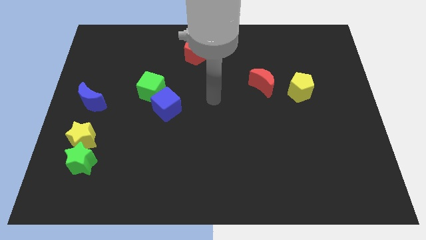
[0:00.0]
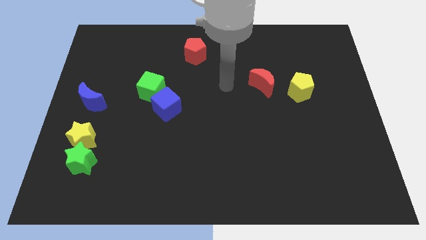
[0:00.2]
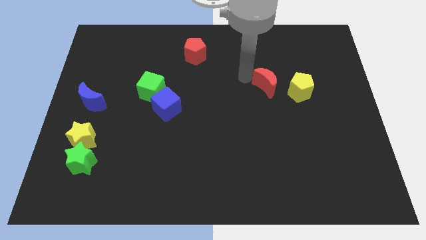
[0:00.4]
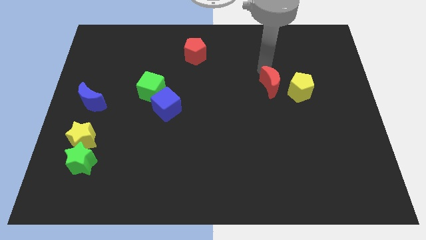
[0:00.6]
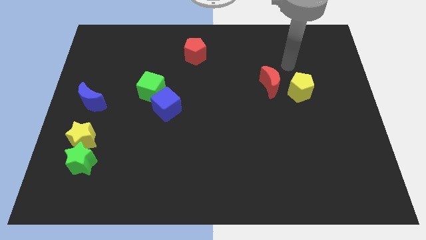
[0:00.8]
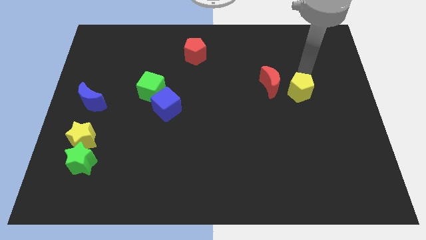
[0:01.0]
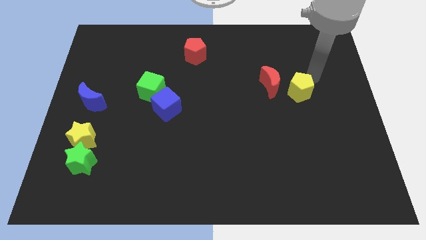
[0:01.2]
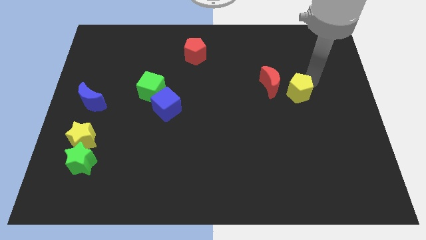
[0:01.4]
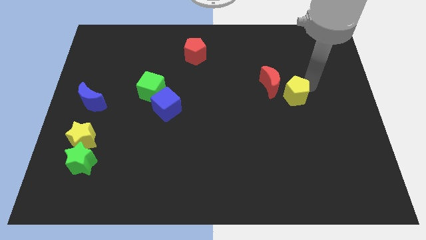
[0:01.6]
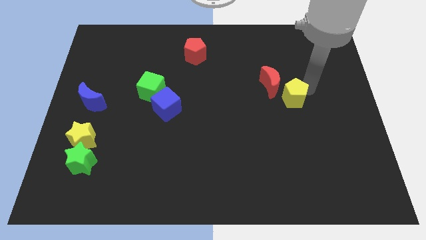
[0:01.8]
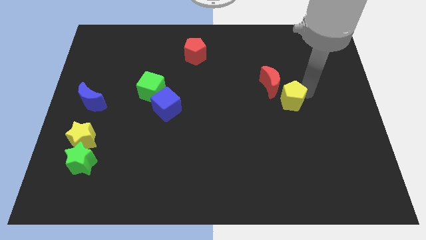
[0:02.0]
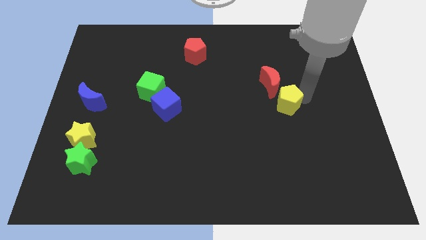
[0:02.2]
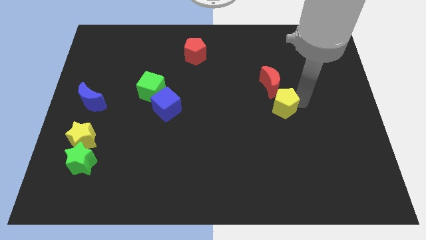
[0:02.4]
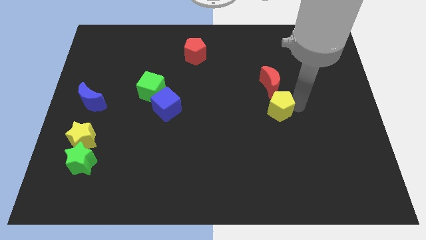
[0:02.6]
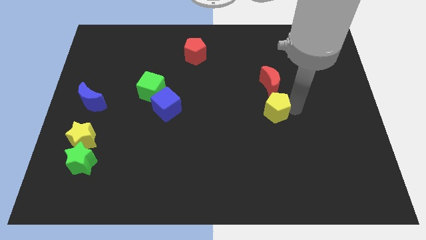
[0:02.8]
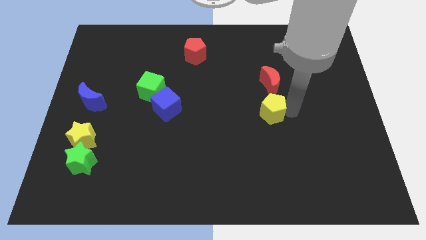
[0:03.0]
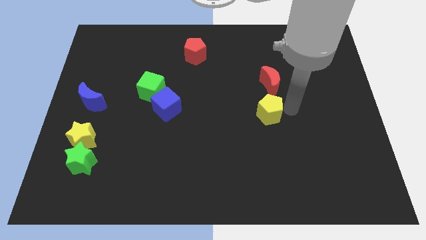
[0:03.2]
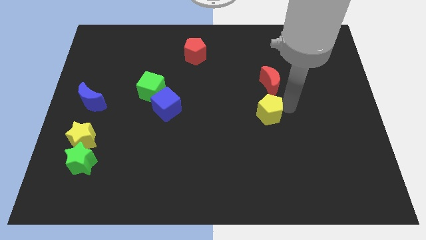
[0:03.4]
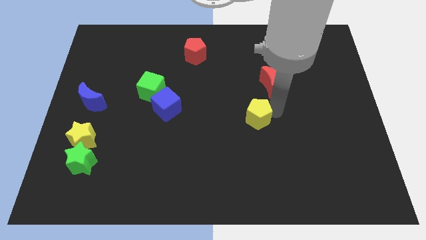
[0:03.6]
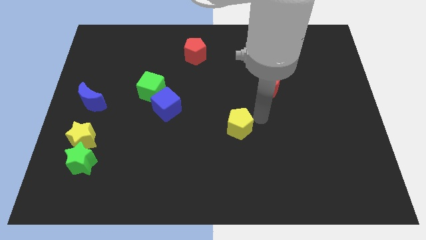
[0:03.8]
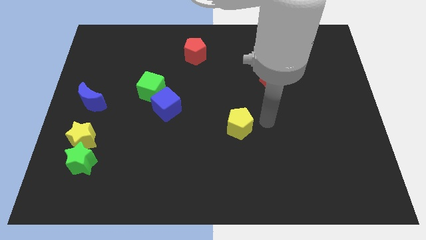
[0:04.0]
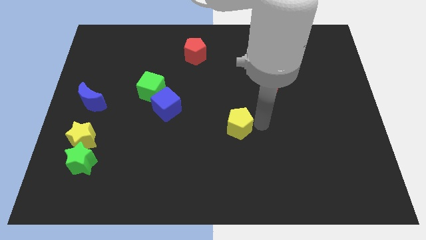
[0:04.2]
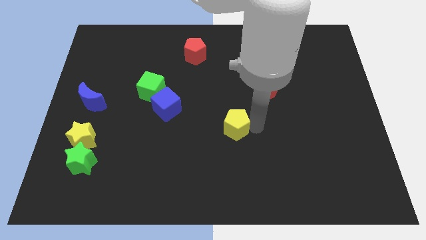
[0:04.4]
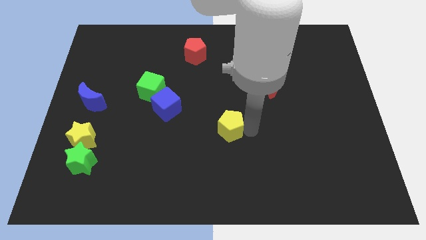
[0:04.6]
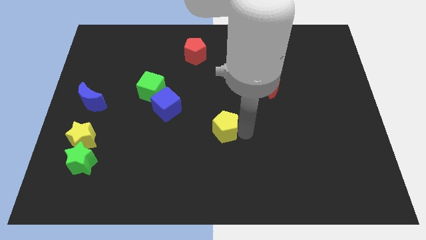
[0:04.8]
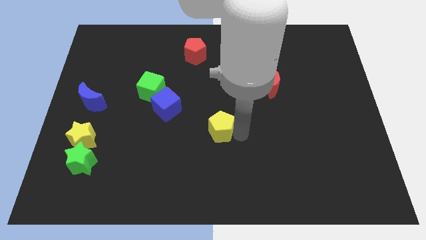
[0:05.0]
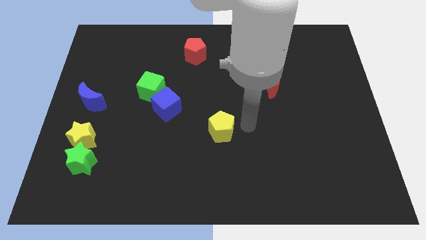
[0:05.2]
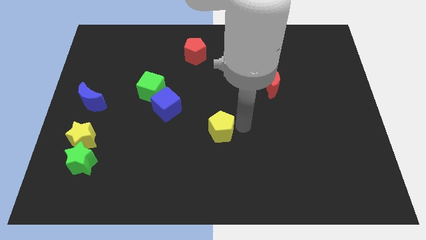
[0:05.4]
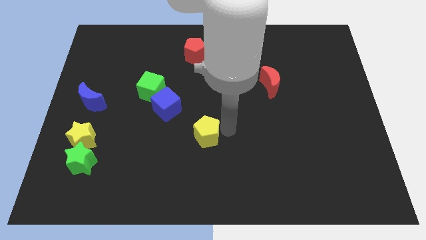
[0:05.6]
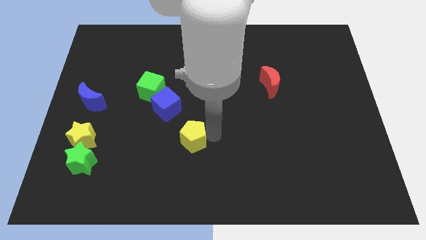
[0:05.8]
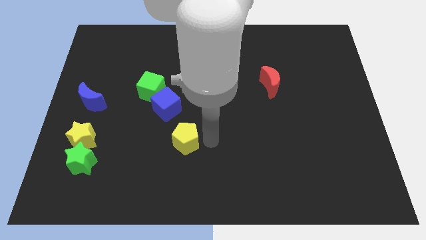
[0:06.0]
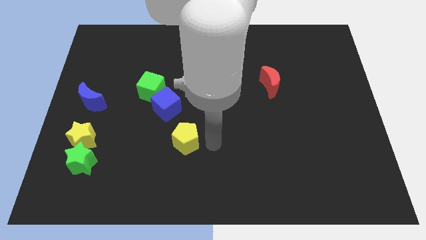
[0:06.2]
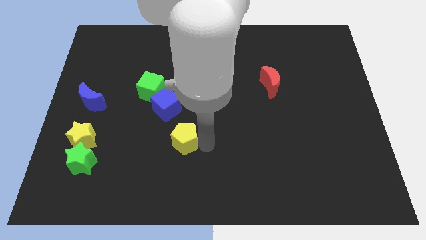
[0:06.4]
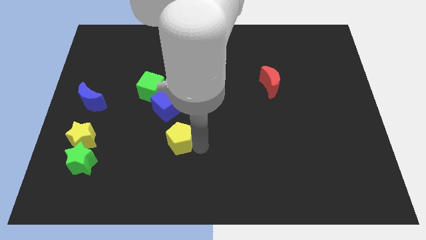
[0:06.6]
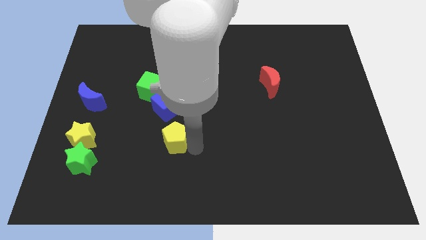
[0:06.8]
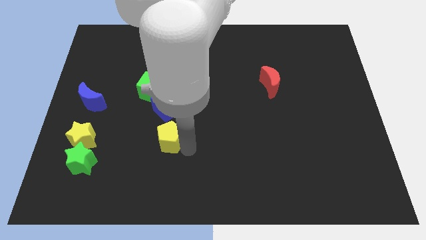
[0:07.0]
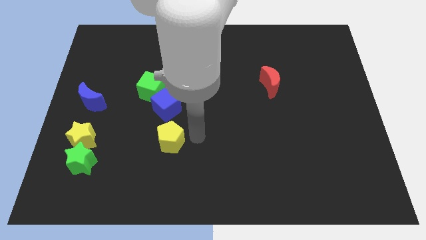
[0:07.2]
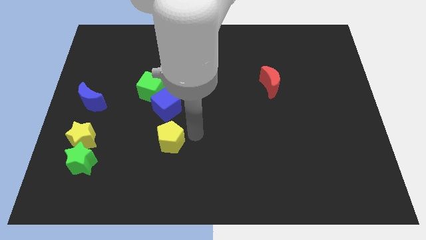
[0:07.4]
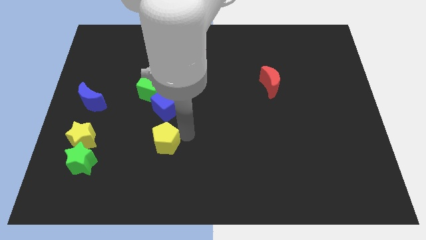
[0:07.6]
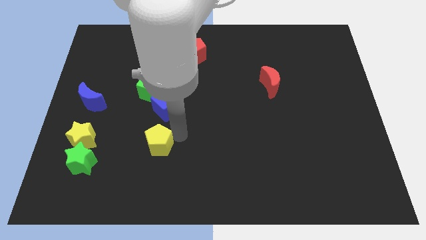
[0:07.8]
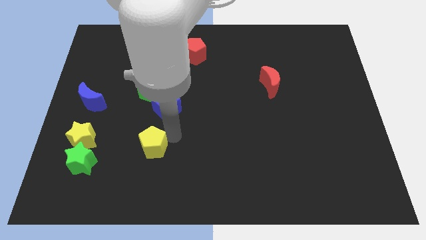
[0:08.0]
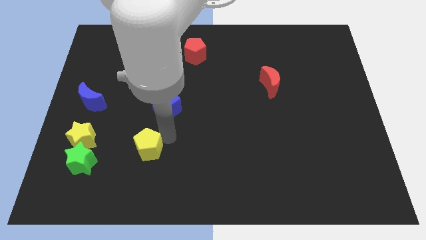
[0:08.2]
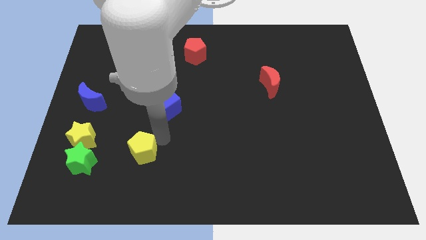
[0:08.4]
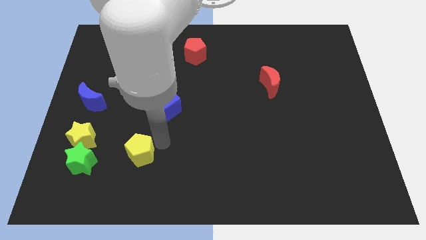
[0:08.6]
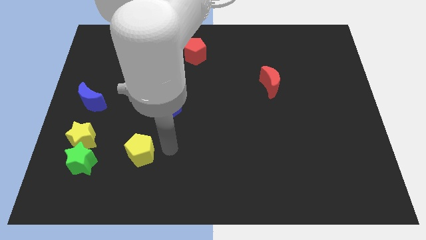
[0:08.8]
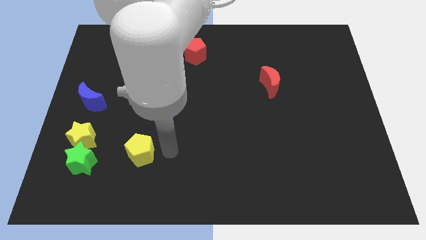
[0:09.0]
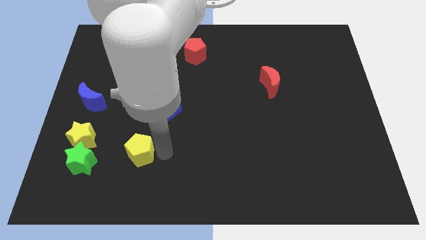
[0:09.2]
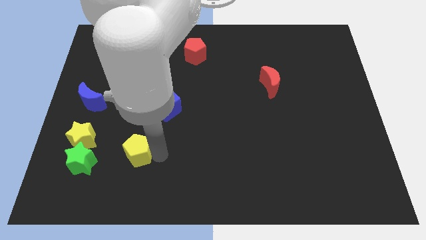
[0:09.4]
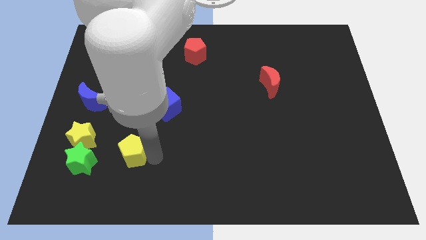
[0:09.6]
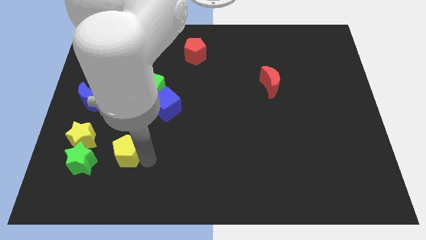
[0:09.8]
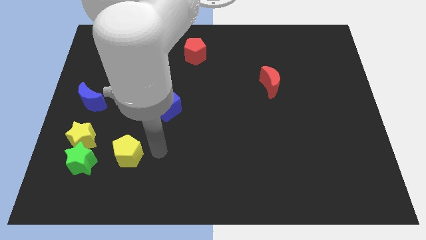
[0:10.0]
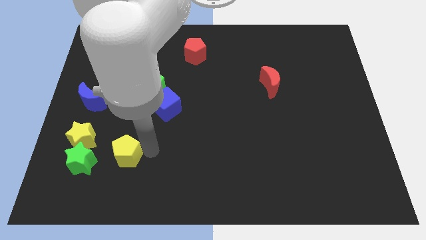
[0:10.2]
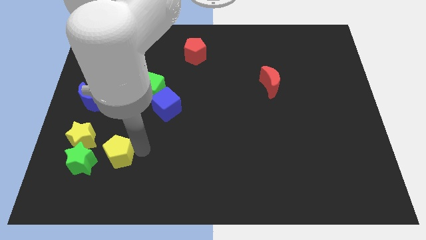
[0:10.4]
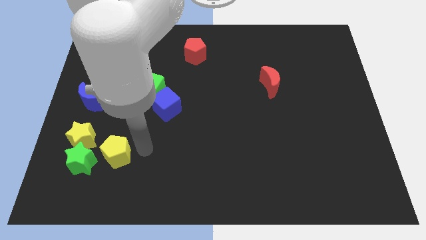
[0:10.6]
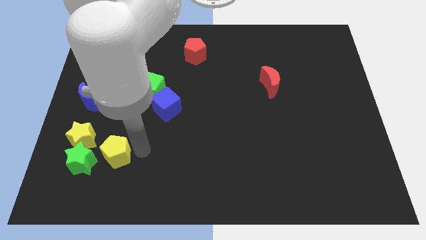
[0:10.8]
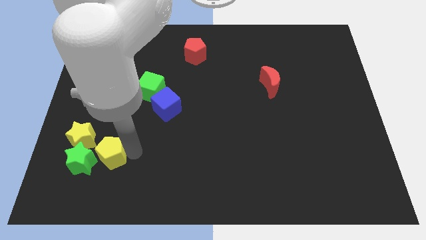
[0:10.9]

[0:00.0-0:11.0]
push the yellow pentagon to the green star

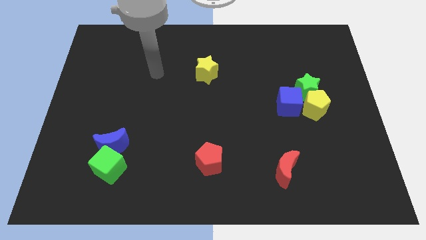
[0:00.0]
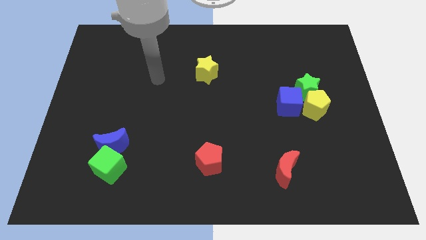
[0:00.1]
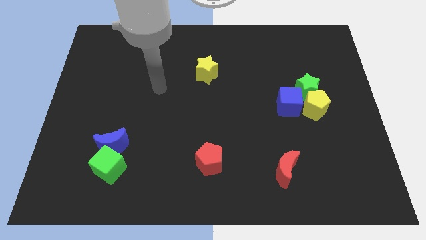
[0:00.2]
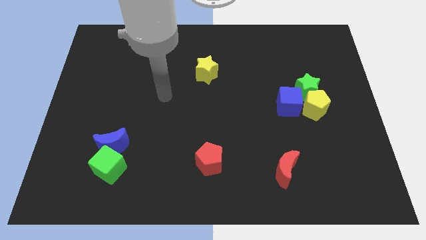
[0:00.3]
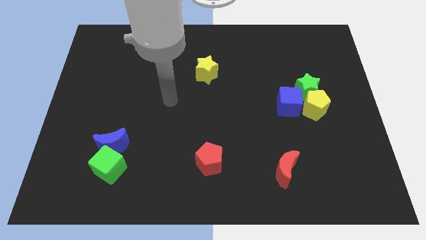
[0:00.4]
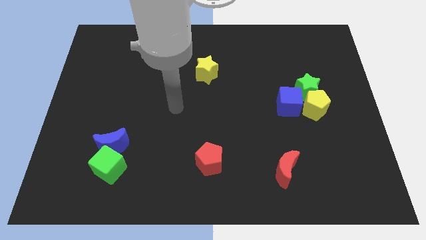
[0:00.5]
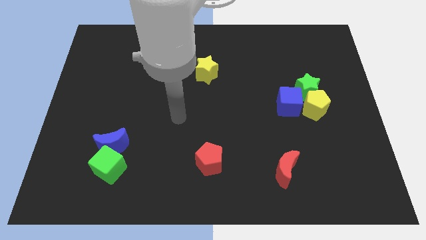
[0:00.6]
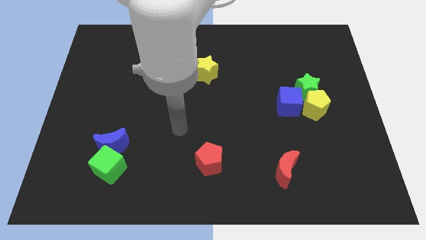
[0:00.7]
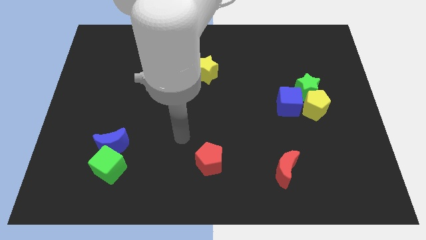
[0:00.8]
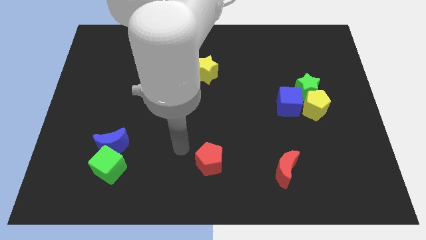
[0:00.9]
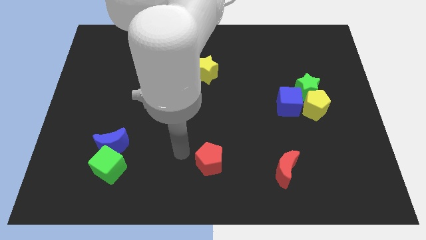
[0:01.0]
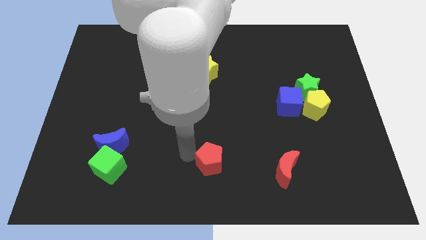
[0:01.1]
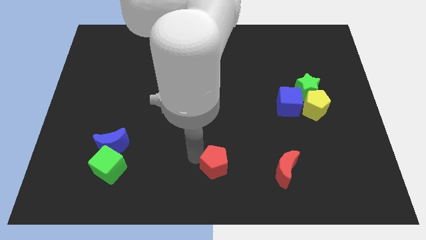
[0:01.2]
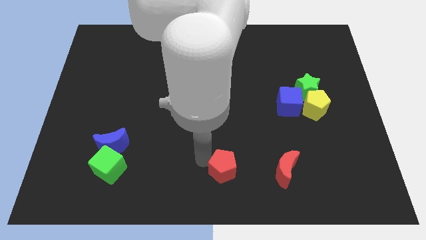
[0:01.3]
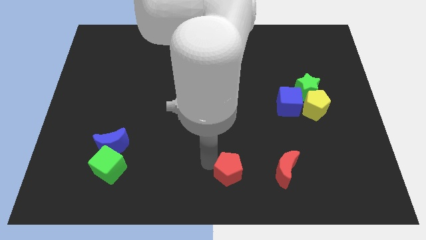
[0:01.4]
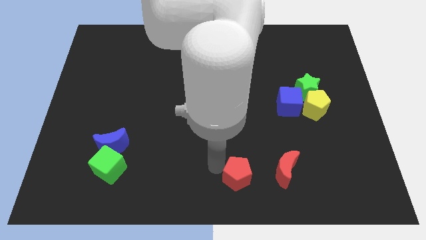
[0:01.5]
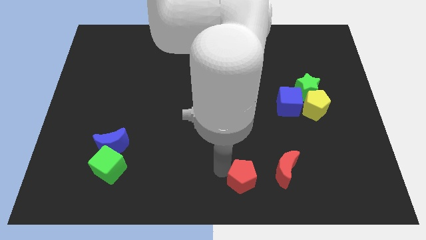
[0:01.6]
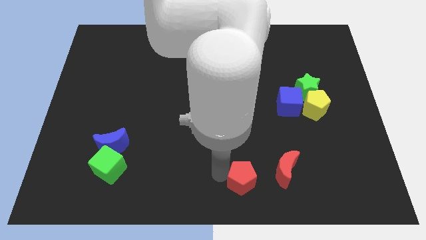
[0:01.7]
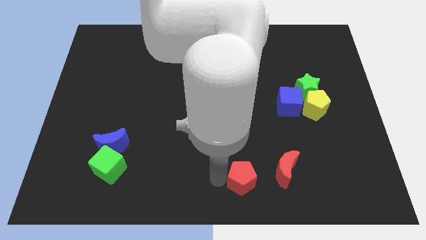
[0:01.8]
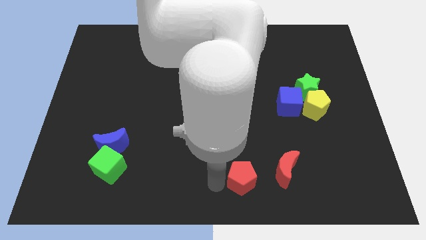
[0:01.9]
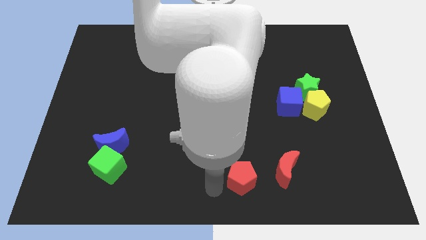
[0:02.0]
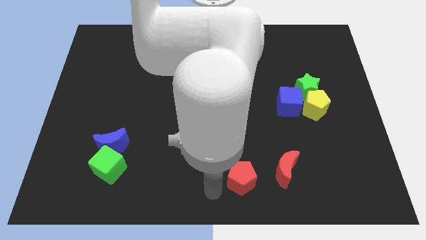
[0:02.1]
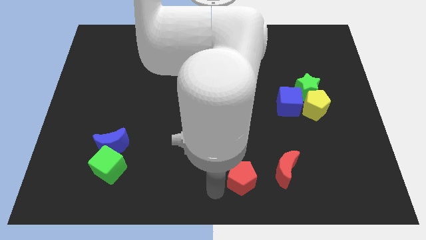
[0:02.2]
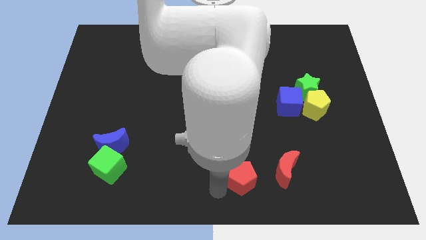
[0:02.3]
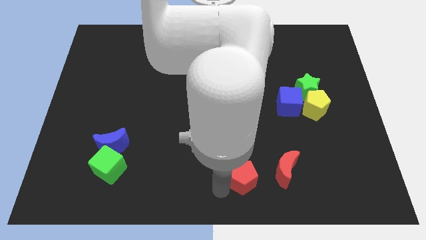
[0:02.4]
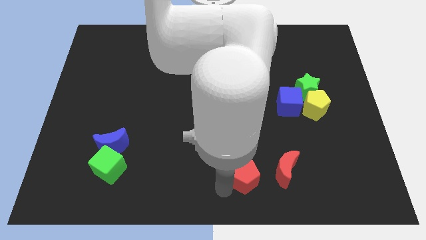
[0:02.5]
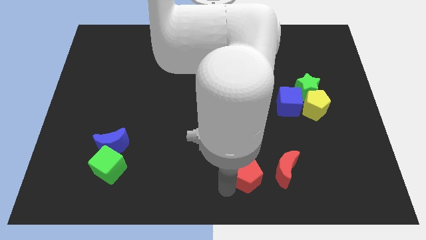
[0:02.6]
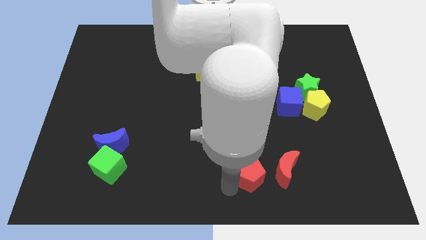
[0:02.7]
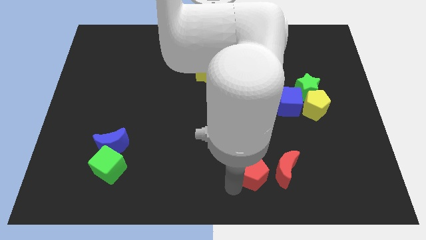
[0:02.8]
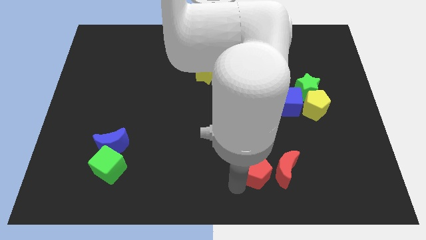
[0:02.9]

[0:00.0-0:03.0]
put the red pentagon next to the red moon
